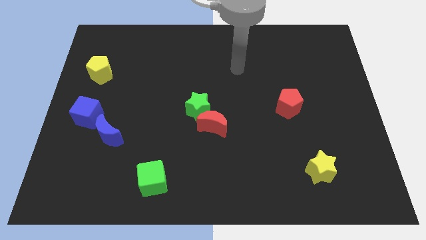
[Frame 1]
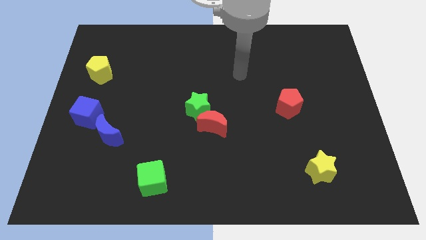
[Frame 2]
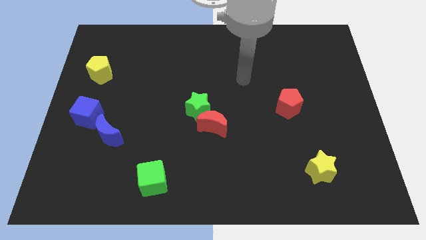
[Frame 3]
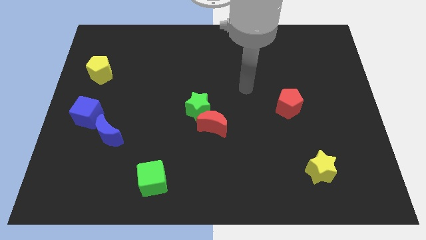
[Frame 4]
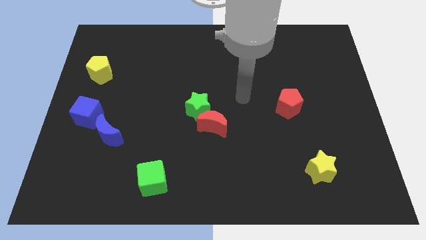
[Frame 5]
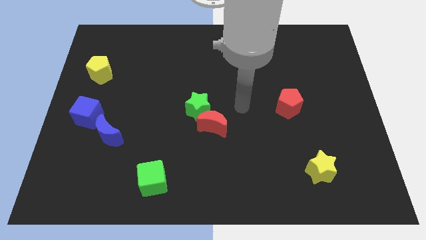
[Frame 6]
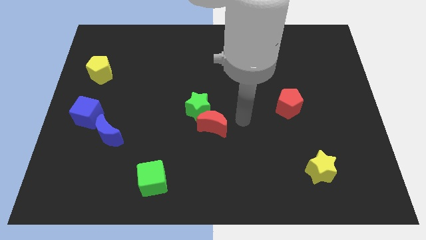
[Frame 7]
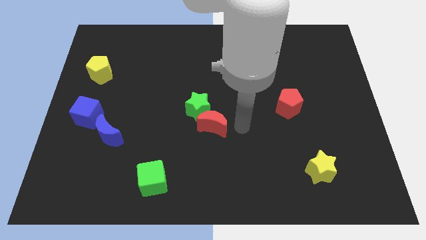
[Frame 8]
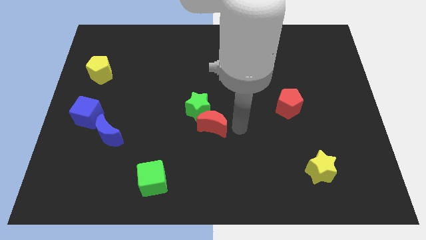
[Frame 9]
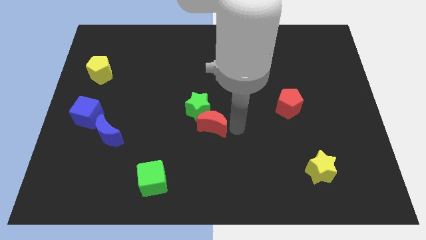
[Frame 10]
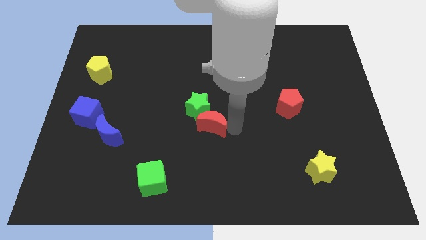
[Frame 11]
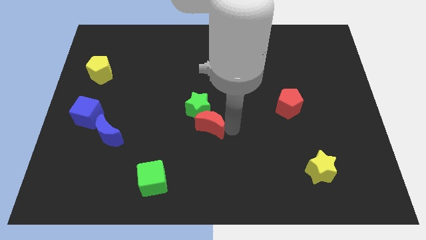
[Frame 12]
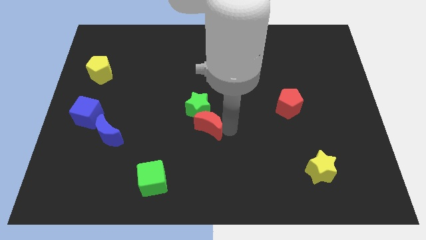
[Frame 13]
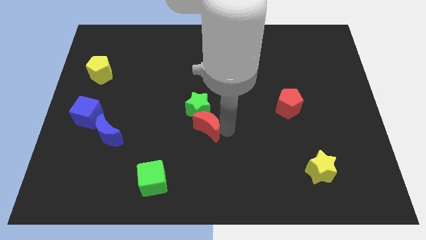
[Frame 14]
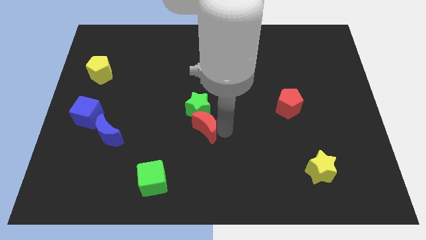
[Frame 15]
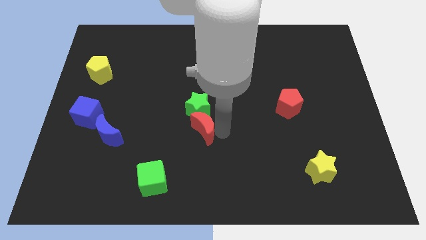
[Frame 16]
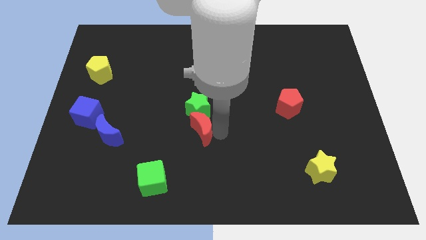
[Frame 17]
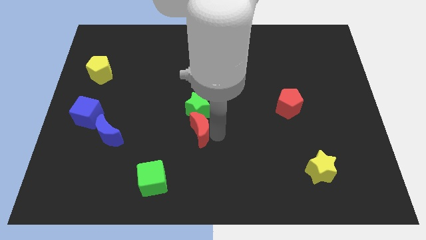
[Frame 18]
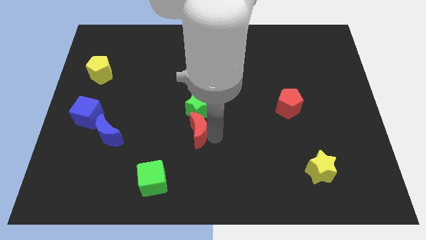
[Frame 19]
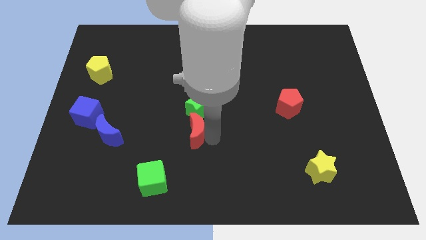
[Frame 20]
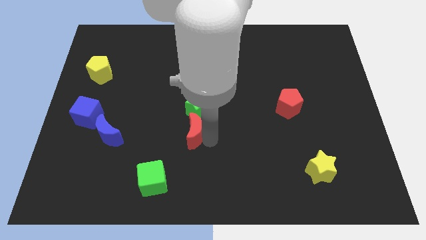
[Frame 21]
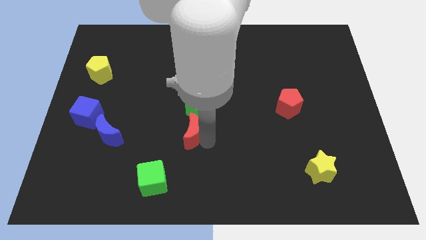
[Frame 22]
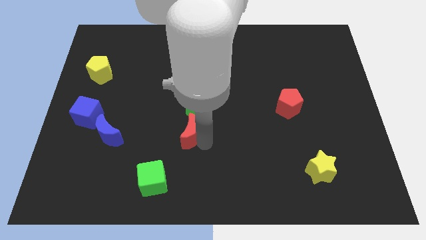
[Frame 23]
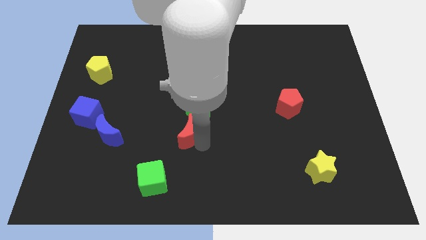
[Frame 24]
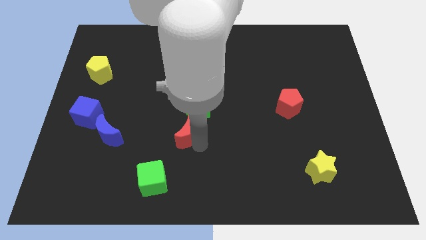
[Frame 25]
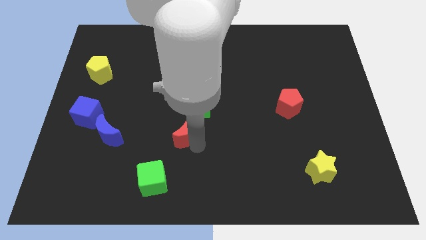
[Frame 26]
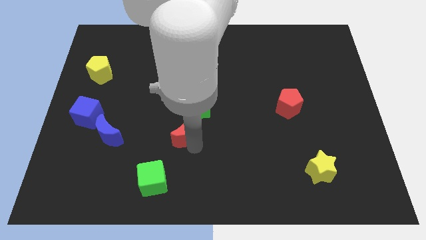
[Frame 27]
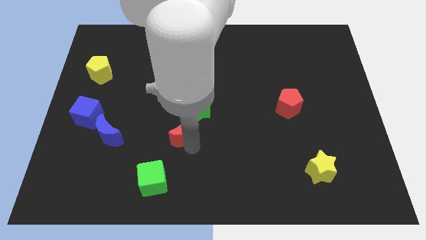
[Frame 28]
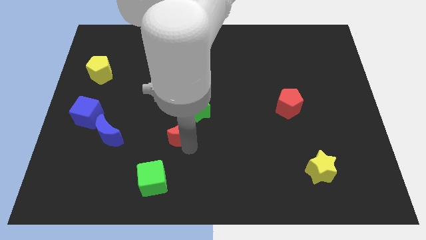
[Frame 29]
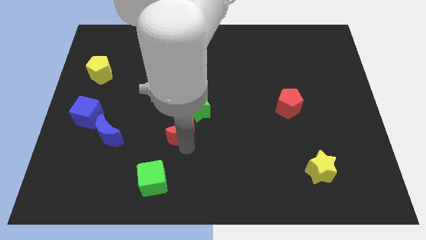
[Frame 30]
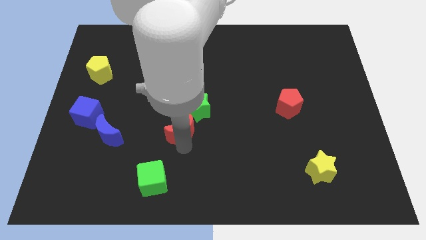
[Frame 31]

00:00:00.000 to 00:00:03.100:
slightly slide the red moon to the left

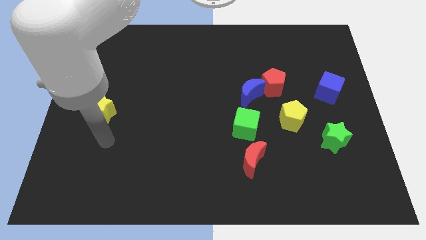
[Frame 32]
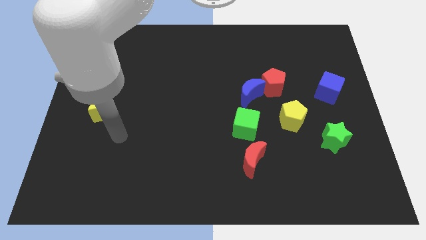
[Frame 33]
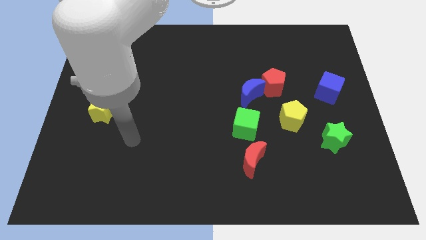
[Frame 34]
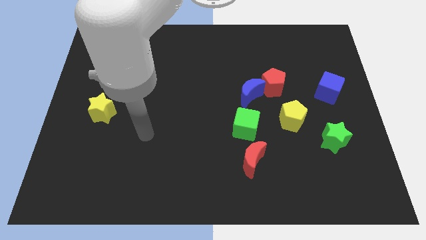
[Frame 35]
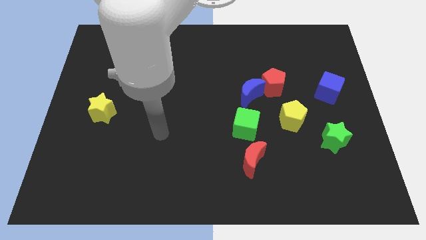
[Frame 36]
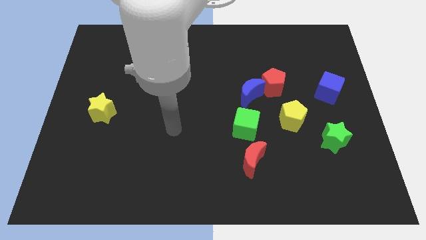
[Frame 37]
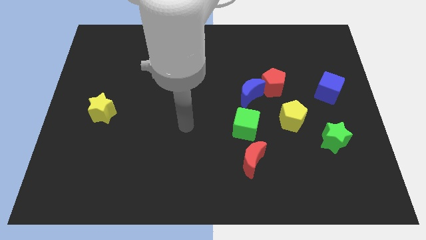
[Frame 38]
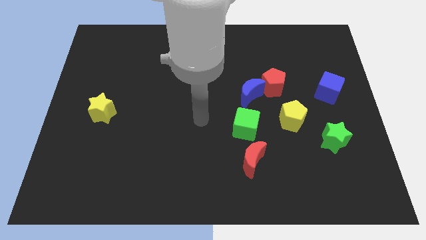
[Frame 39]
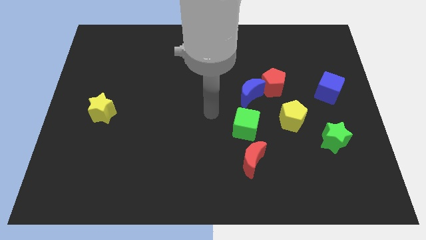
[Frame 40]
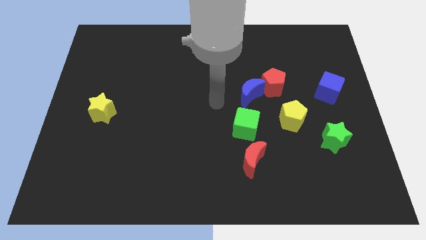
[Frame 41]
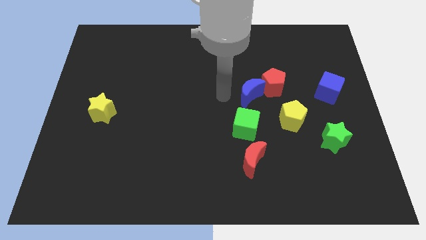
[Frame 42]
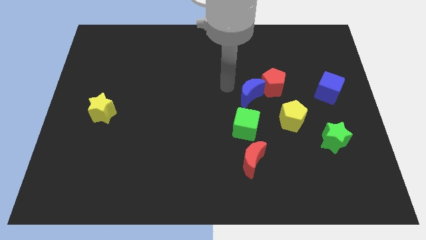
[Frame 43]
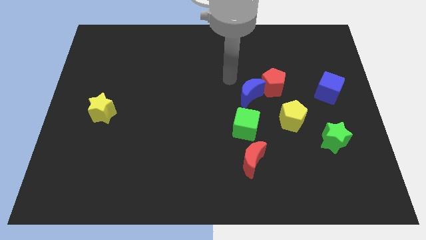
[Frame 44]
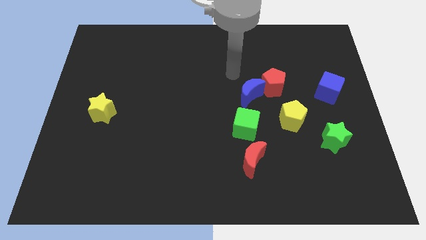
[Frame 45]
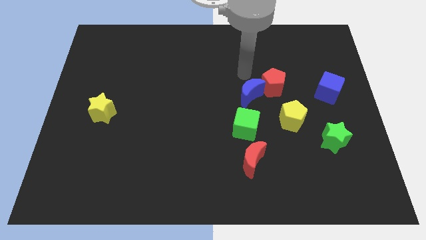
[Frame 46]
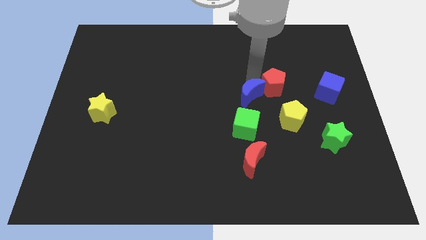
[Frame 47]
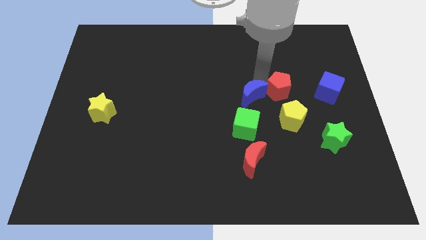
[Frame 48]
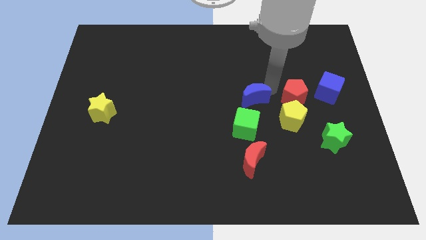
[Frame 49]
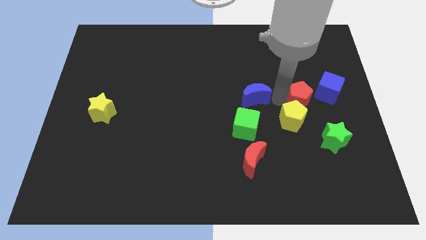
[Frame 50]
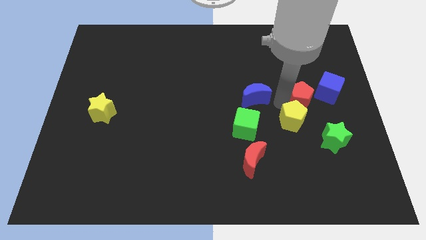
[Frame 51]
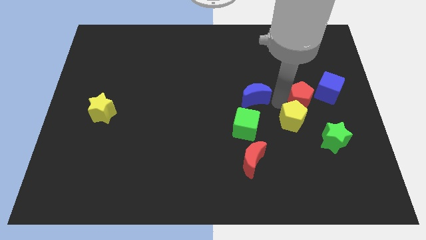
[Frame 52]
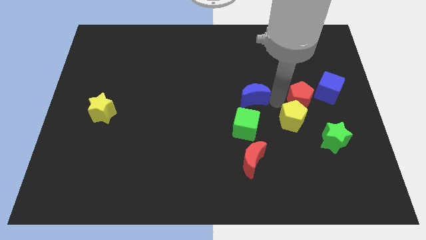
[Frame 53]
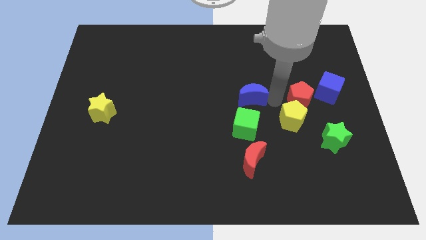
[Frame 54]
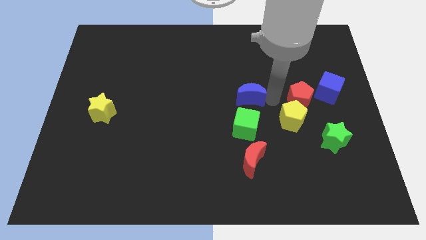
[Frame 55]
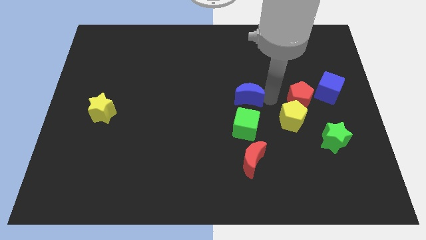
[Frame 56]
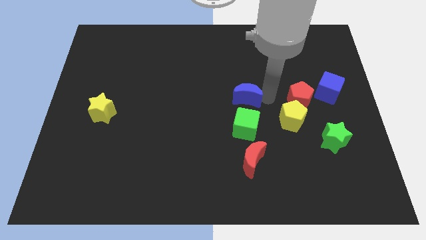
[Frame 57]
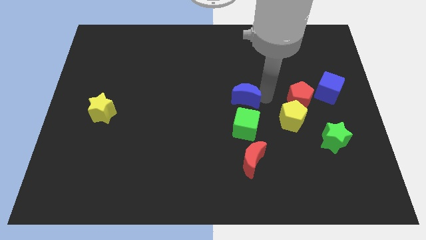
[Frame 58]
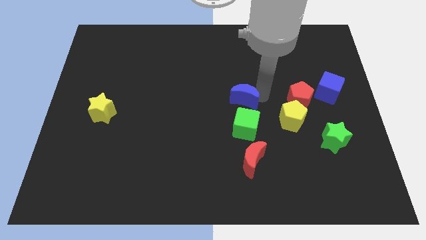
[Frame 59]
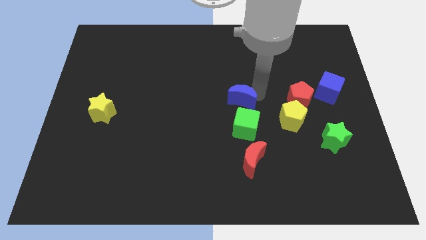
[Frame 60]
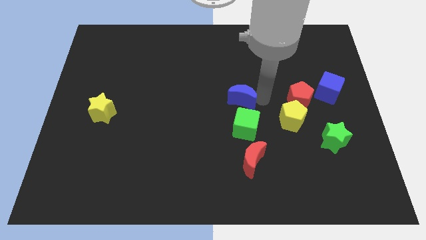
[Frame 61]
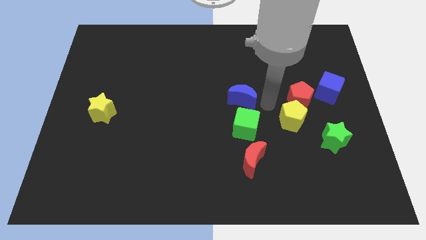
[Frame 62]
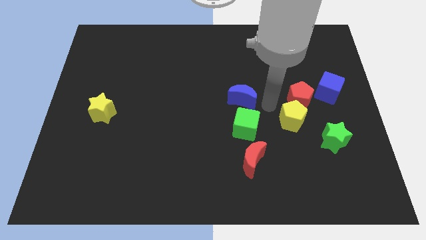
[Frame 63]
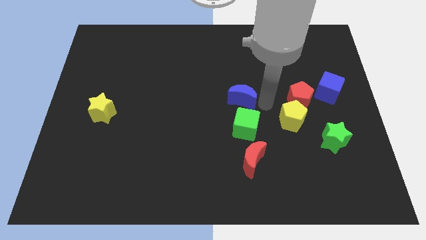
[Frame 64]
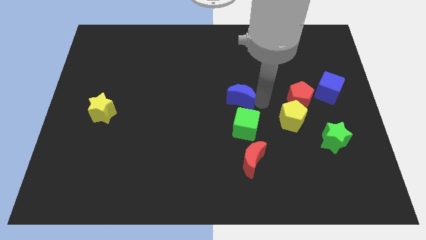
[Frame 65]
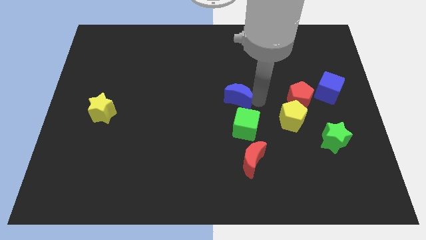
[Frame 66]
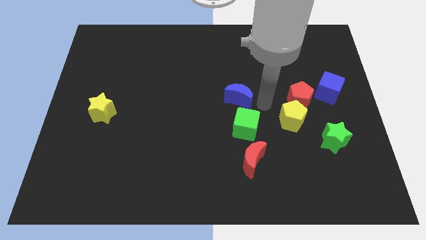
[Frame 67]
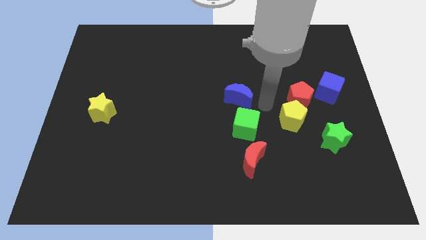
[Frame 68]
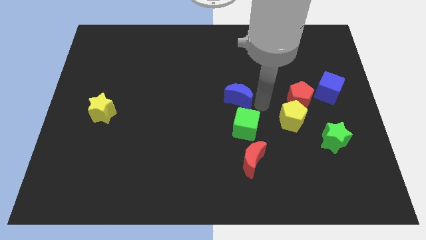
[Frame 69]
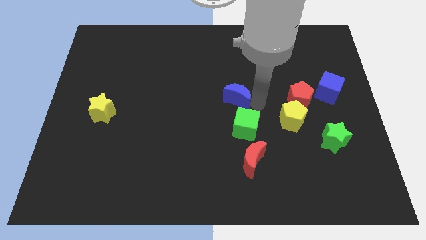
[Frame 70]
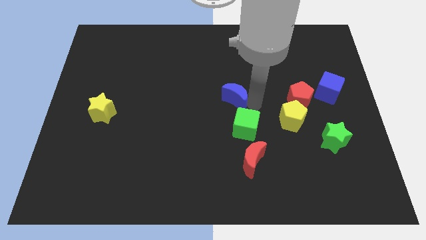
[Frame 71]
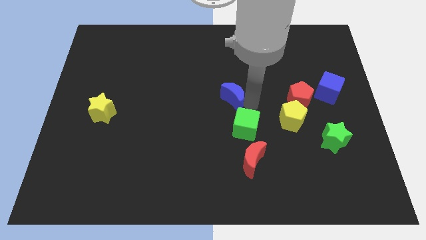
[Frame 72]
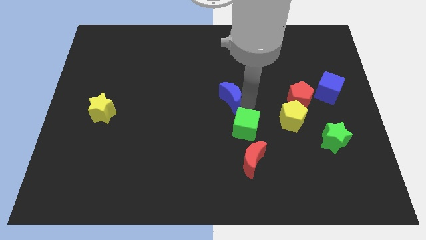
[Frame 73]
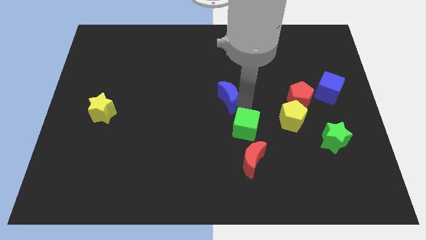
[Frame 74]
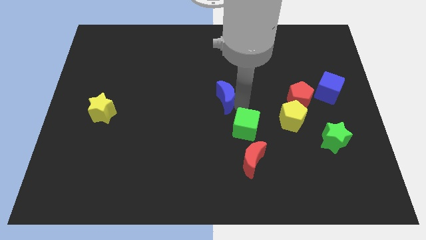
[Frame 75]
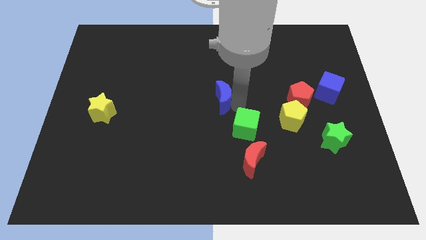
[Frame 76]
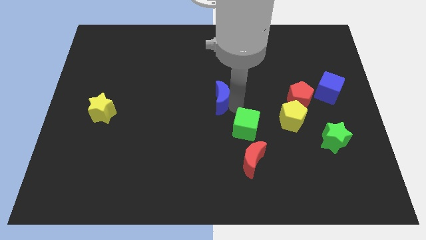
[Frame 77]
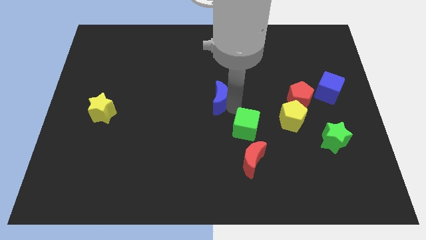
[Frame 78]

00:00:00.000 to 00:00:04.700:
slightly move the blue moon left

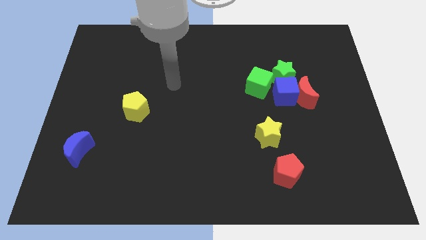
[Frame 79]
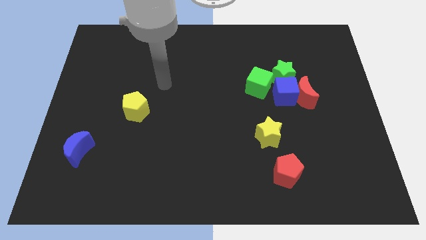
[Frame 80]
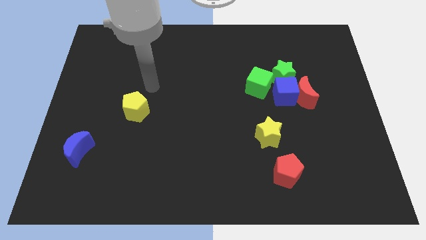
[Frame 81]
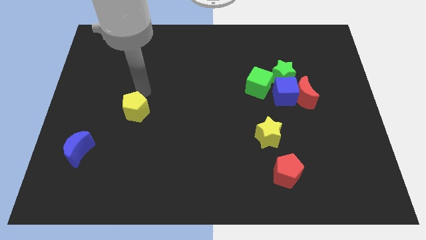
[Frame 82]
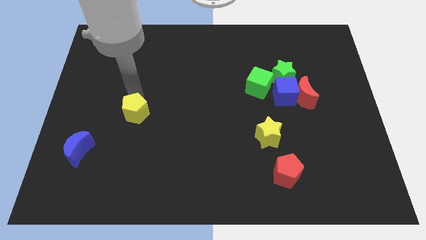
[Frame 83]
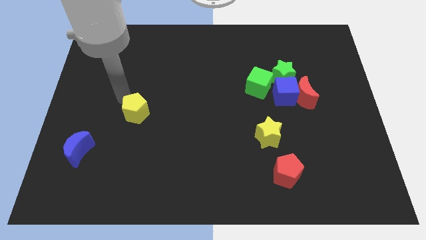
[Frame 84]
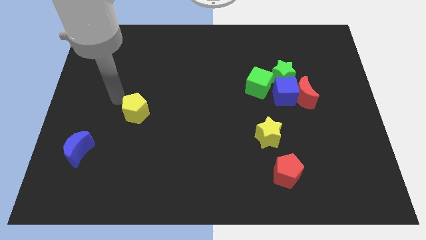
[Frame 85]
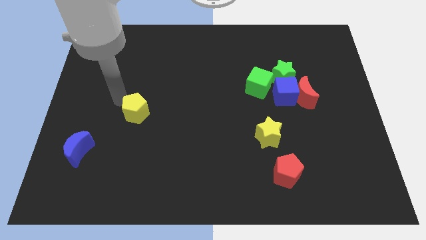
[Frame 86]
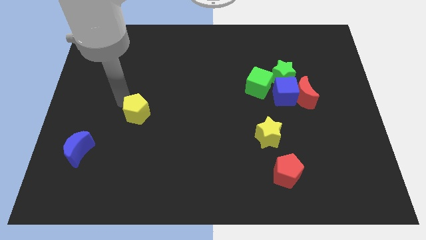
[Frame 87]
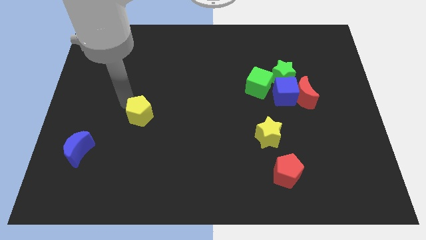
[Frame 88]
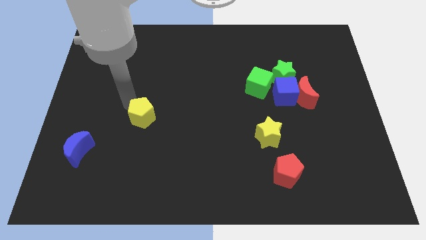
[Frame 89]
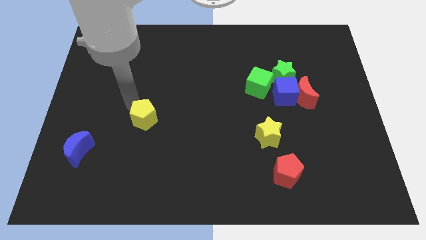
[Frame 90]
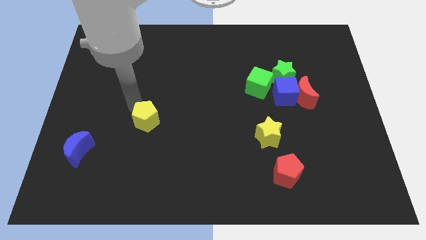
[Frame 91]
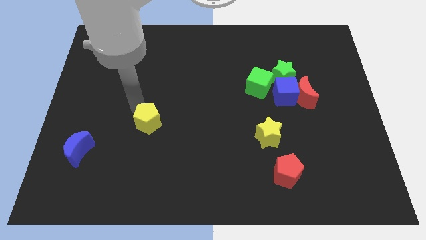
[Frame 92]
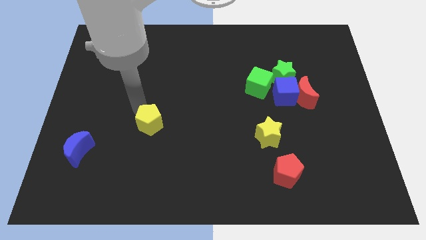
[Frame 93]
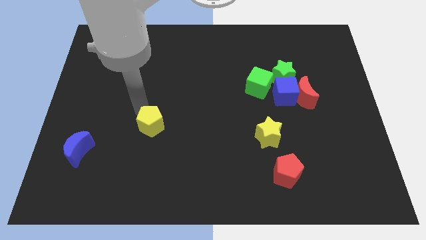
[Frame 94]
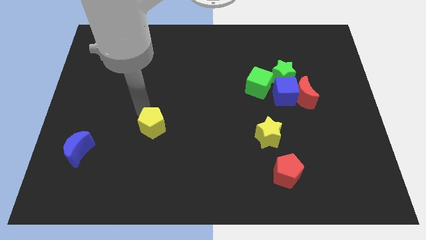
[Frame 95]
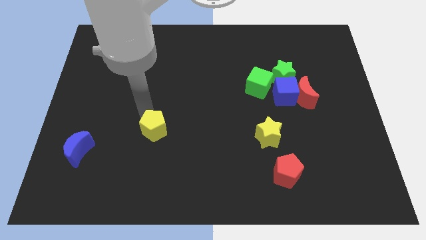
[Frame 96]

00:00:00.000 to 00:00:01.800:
slightly slide the yellow pentagon downwards and then right
